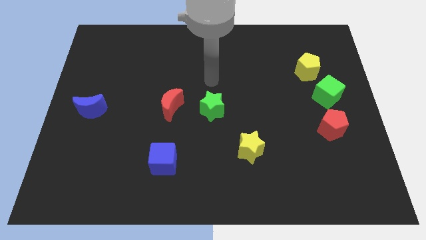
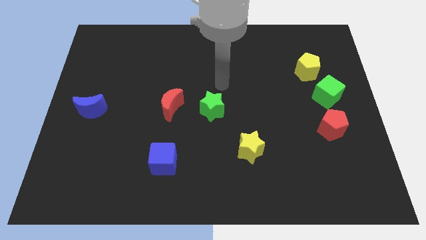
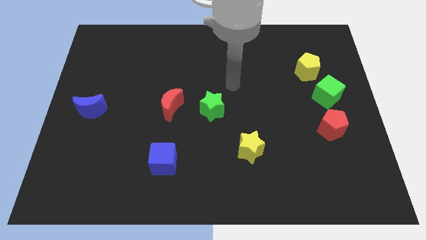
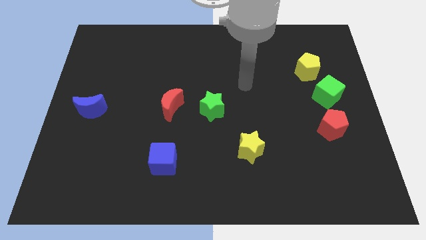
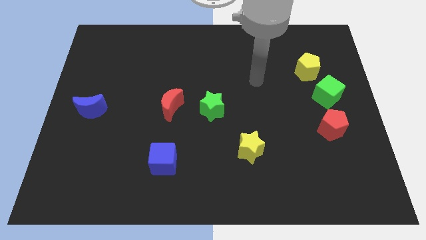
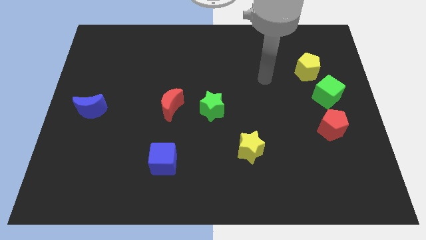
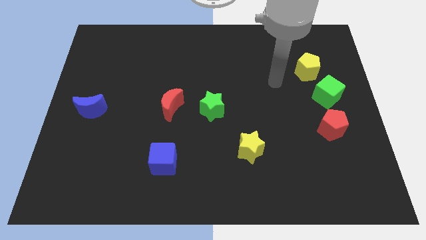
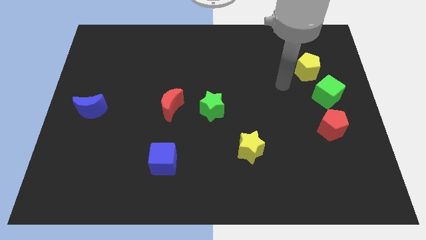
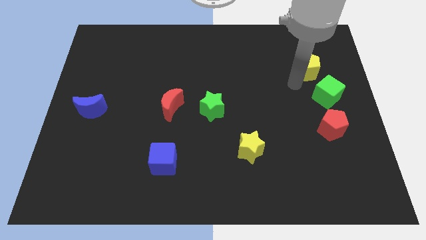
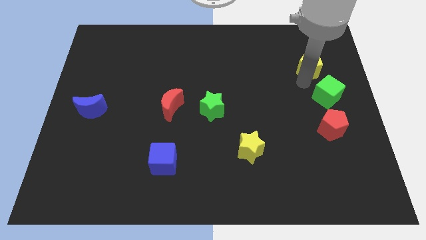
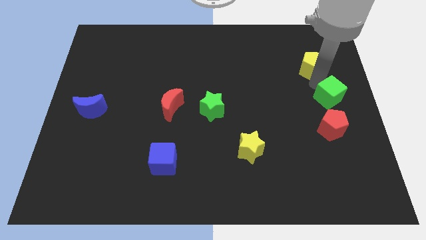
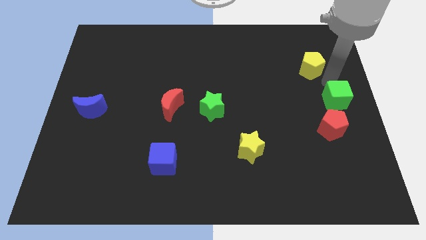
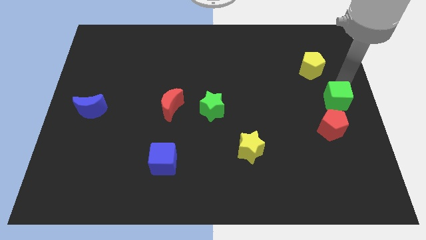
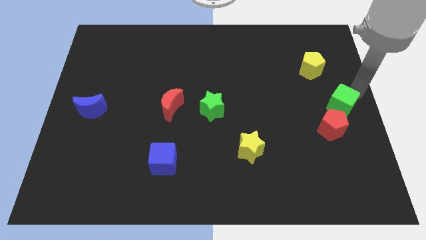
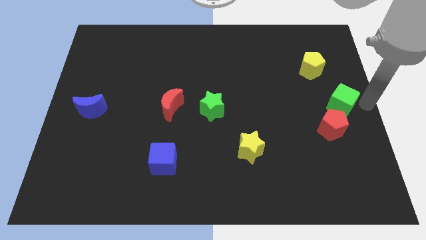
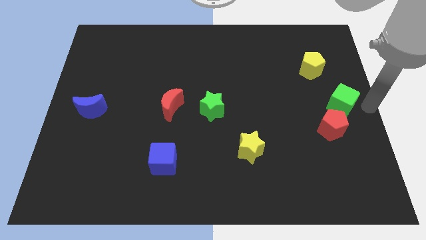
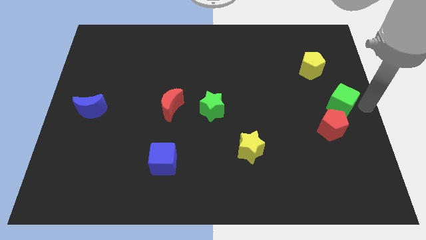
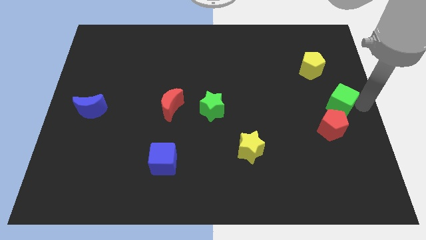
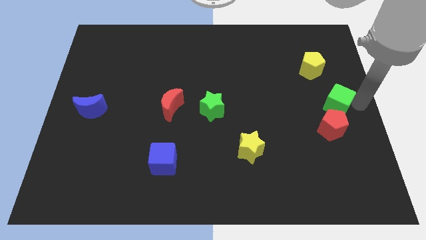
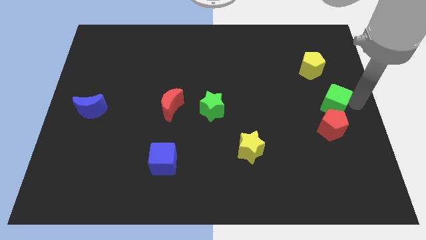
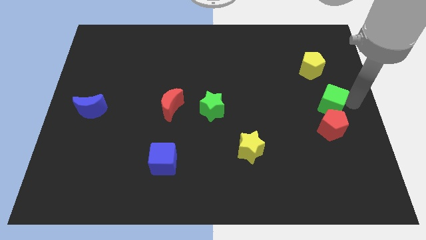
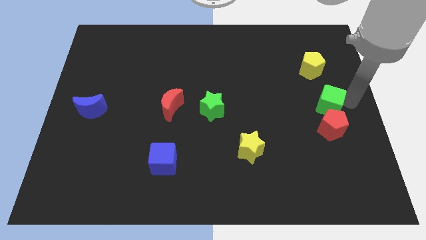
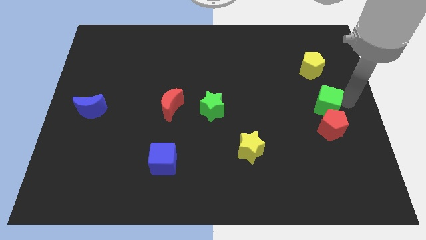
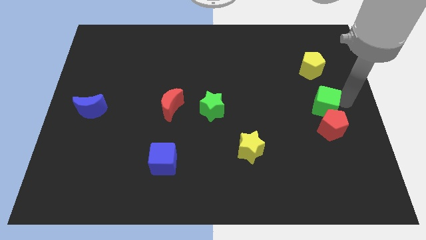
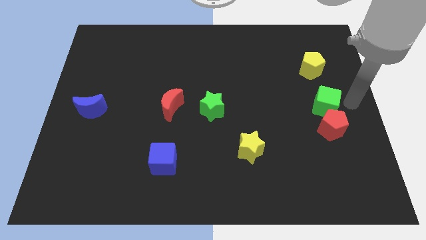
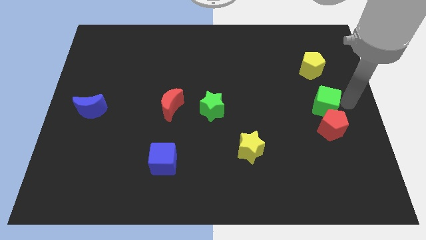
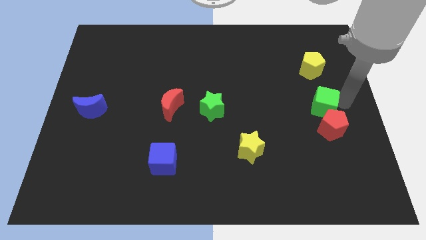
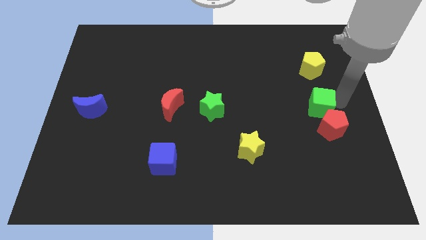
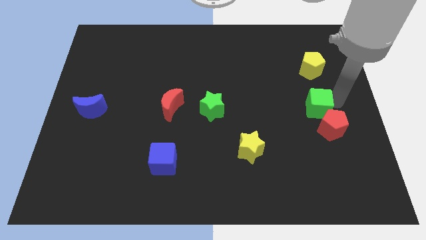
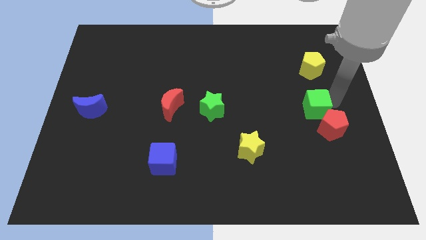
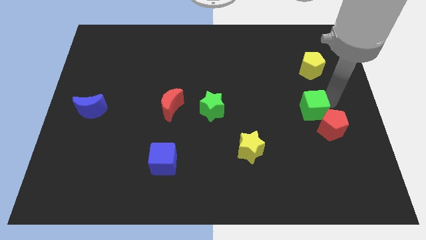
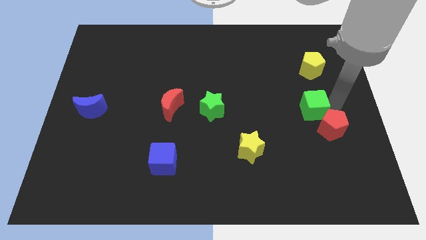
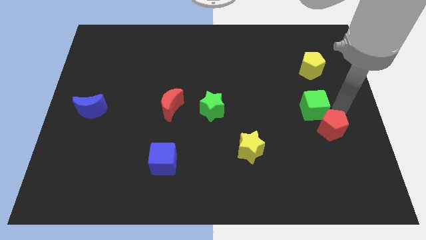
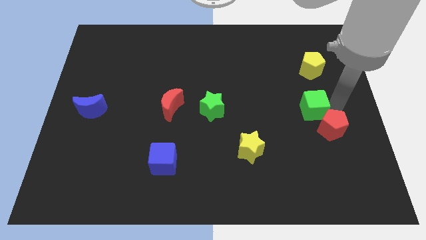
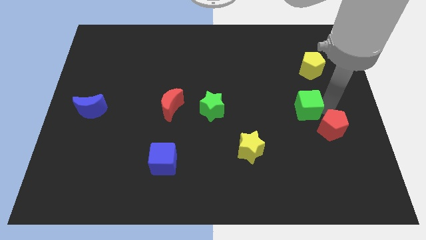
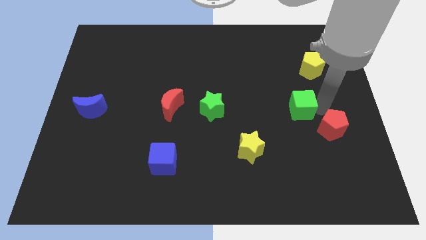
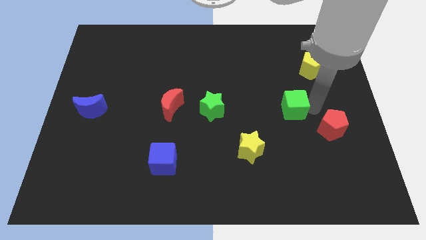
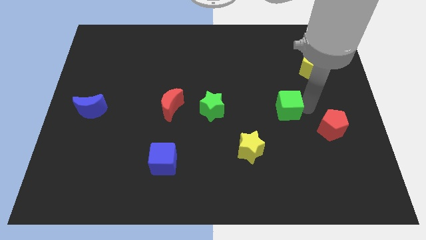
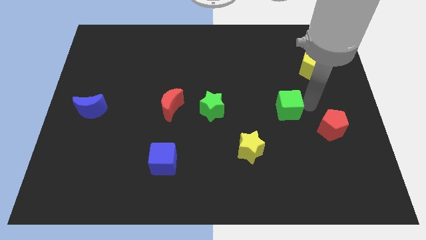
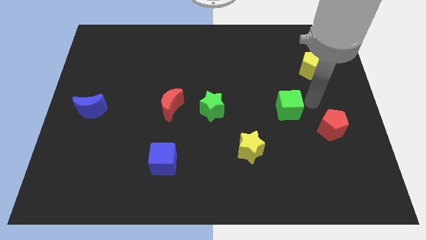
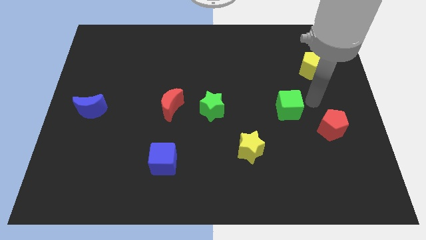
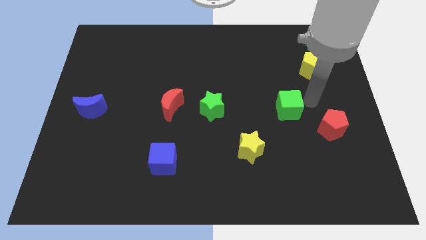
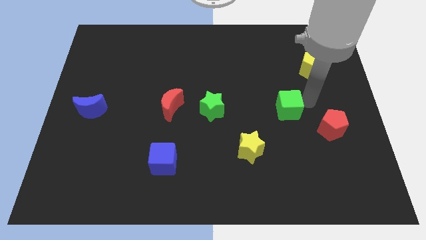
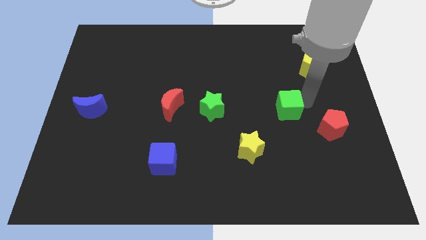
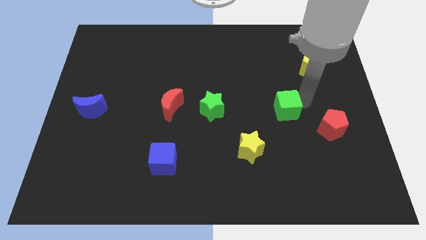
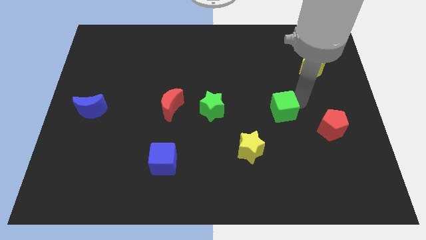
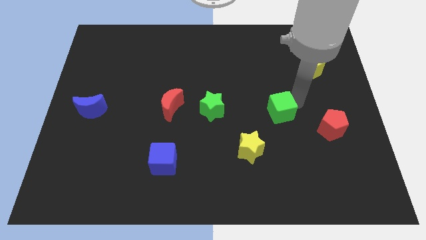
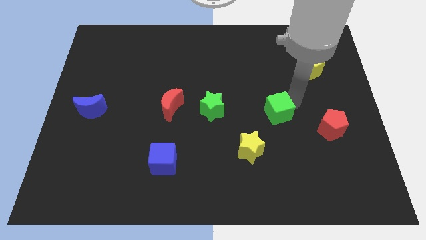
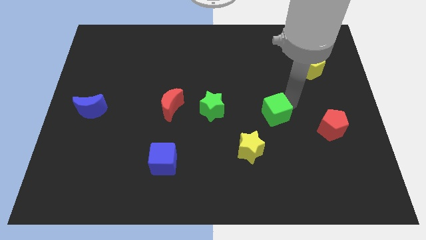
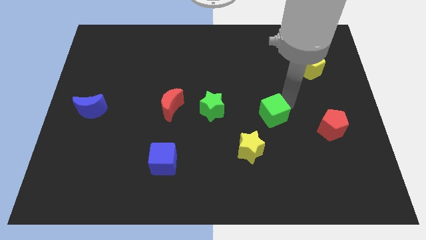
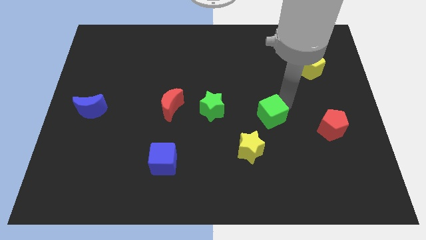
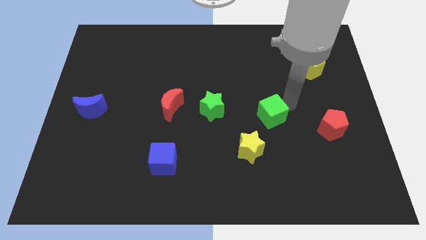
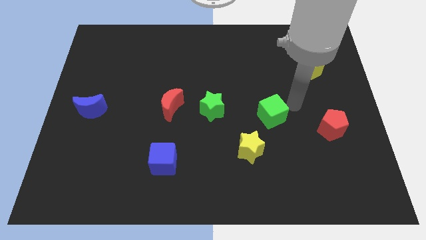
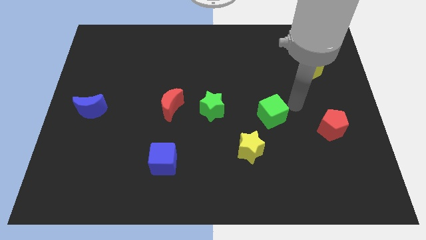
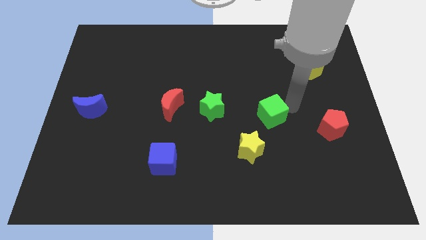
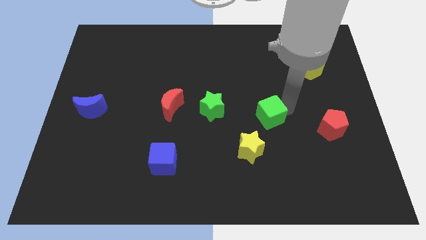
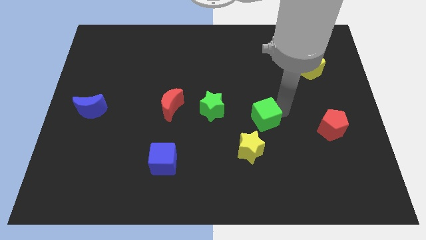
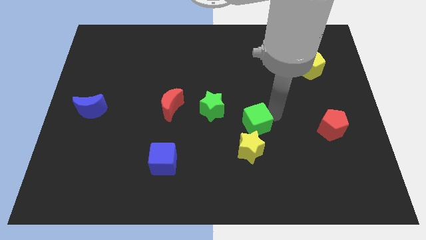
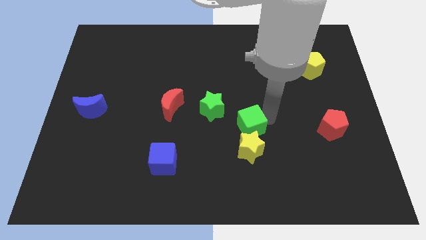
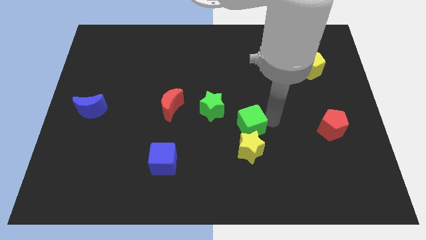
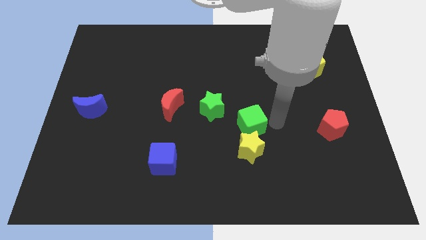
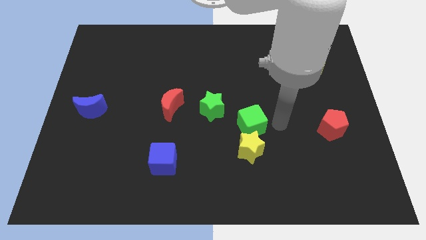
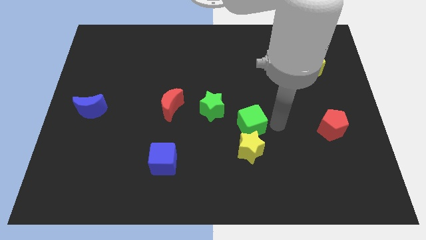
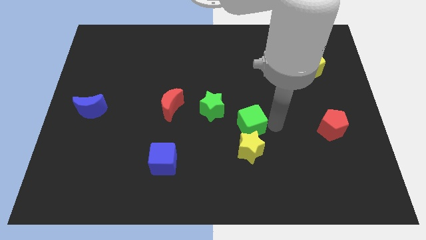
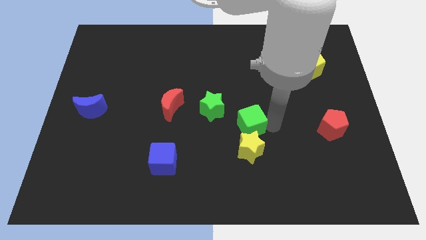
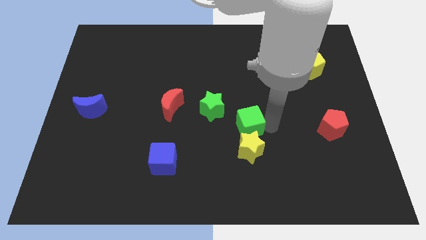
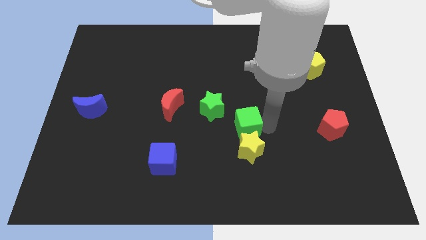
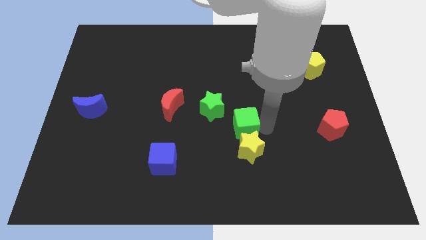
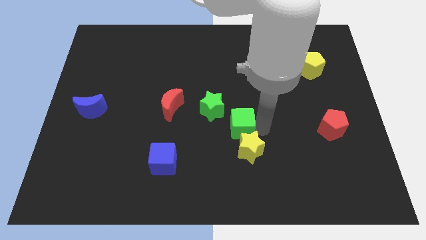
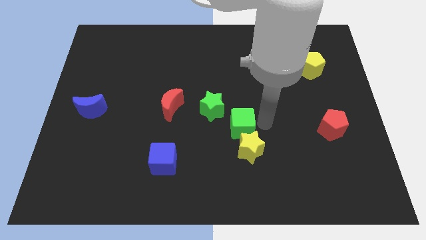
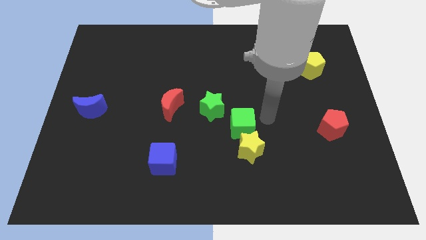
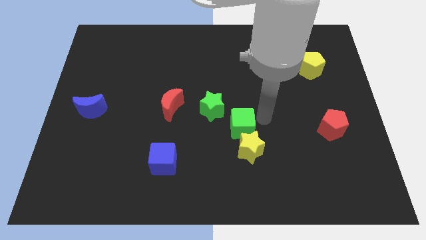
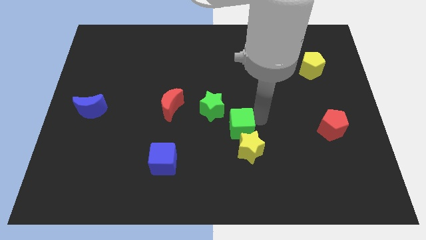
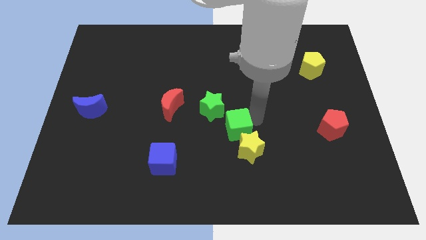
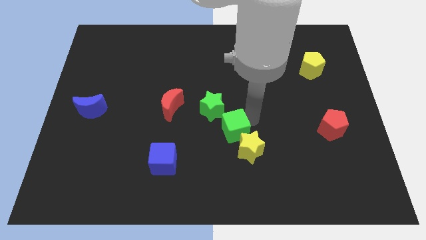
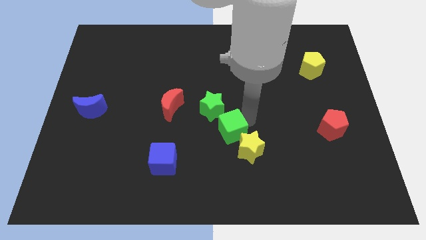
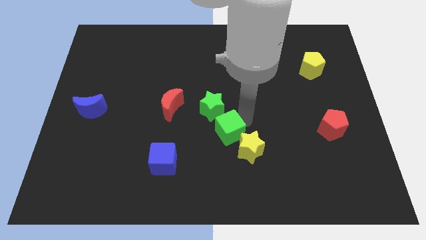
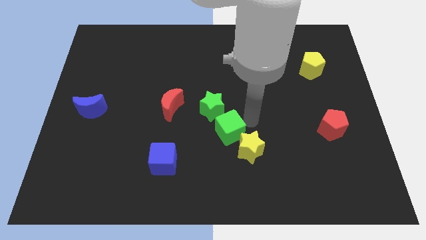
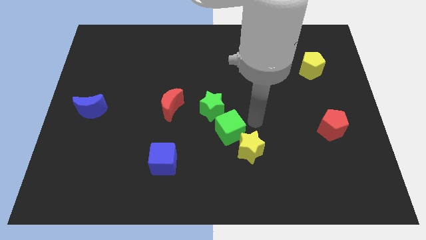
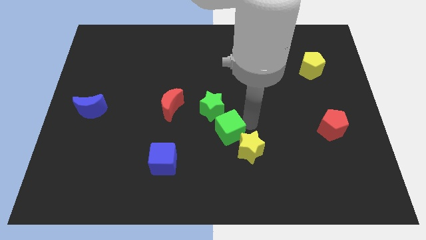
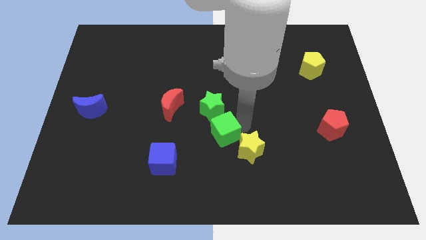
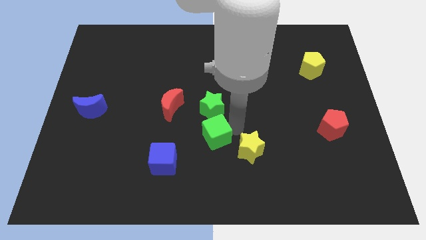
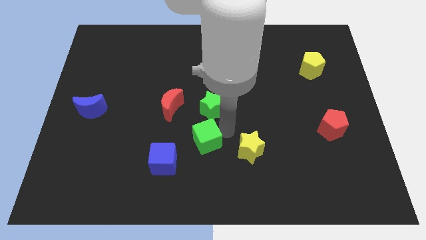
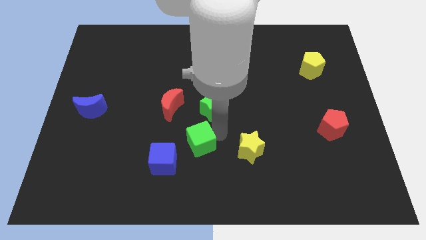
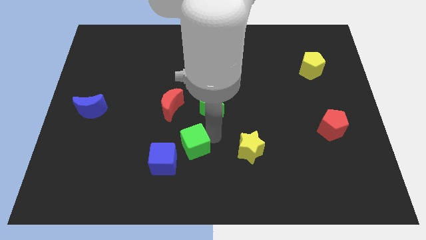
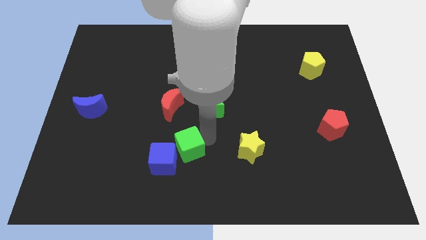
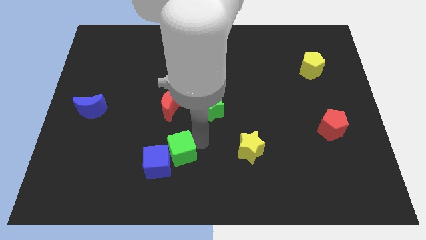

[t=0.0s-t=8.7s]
slide the green cube close to the blue cube
